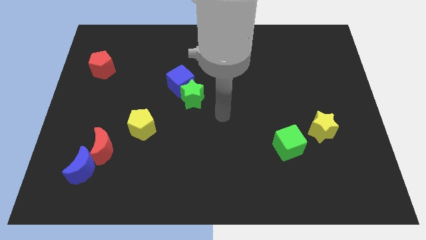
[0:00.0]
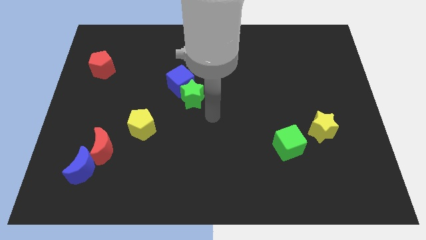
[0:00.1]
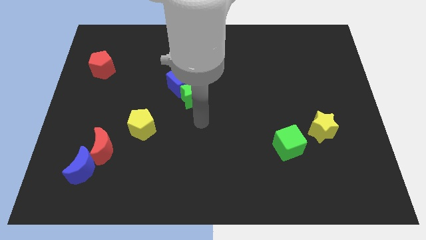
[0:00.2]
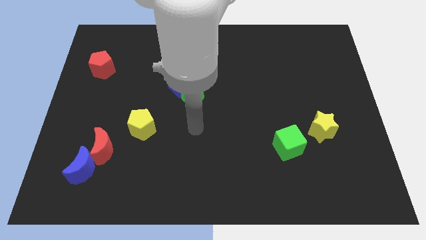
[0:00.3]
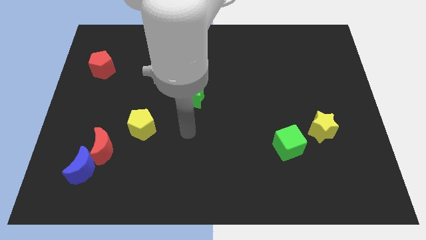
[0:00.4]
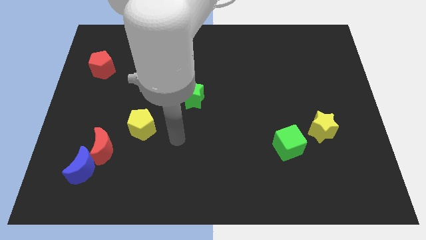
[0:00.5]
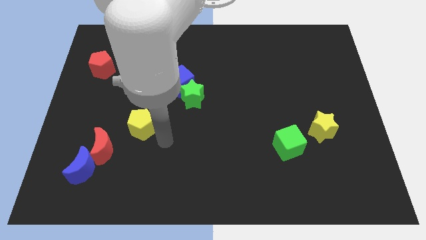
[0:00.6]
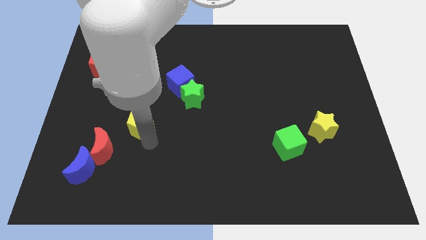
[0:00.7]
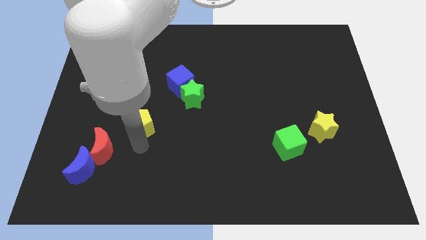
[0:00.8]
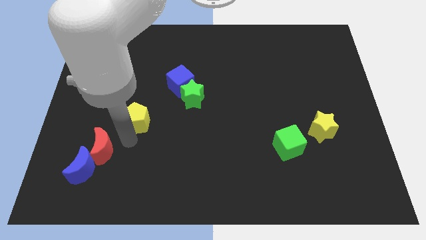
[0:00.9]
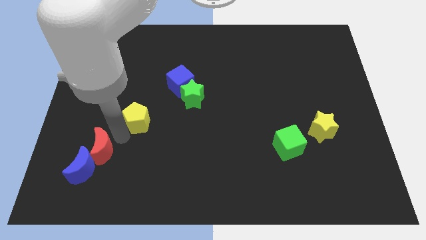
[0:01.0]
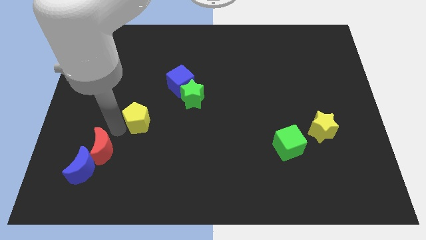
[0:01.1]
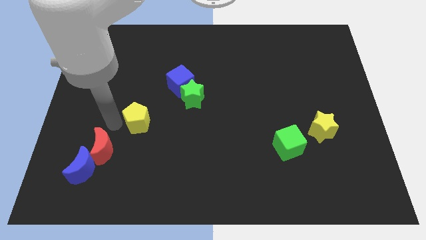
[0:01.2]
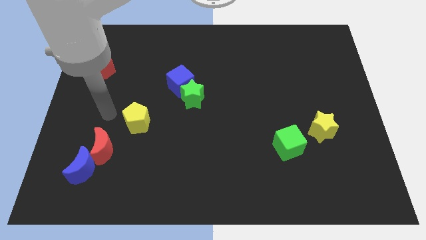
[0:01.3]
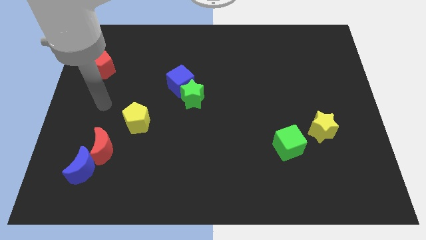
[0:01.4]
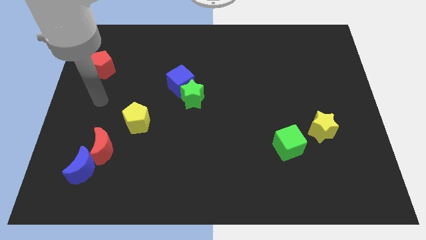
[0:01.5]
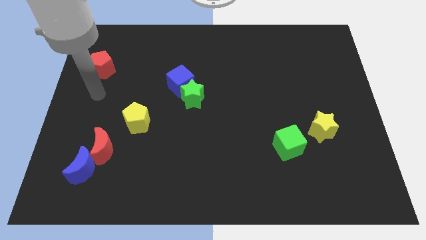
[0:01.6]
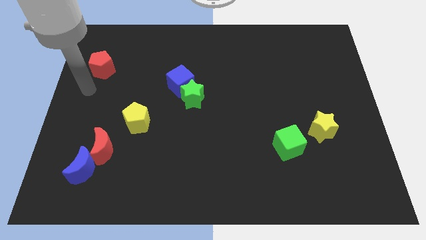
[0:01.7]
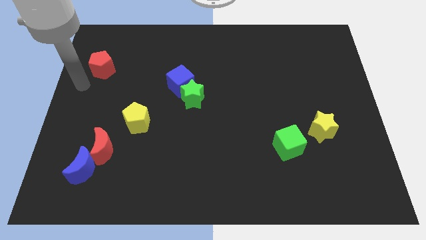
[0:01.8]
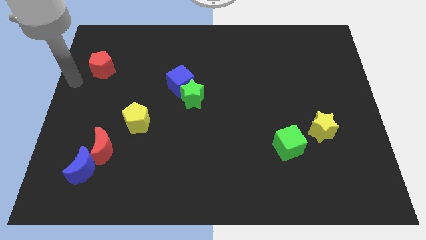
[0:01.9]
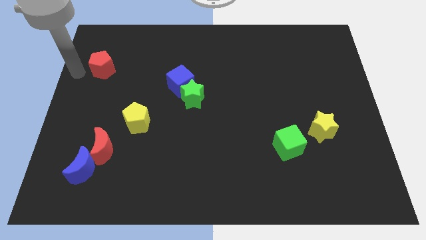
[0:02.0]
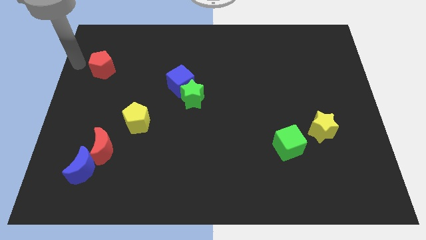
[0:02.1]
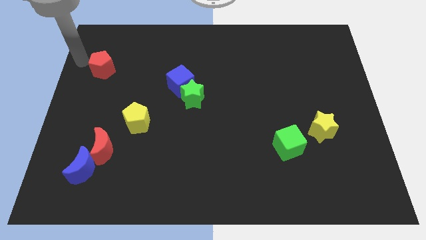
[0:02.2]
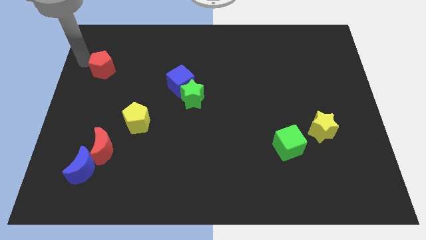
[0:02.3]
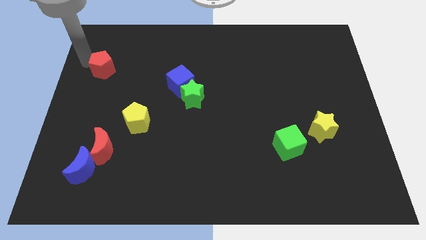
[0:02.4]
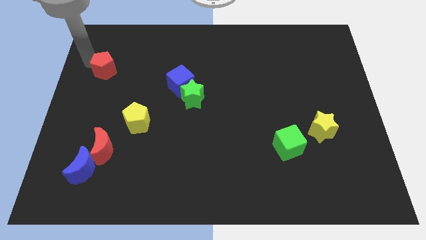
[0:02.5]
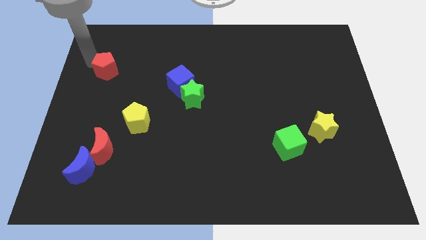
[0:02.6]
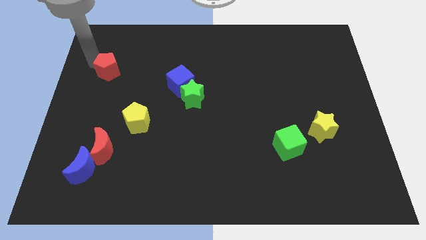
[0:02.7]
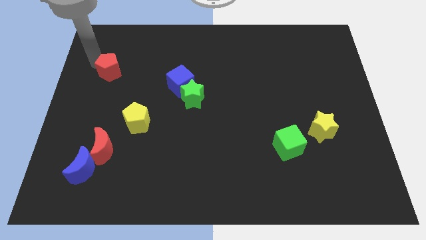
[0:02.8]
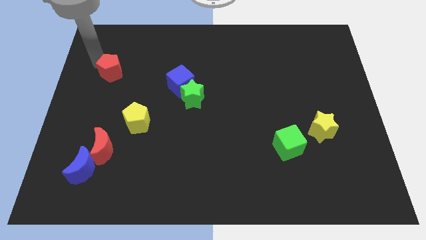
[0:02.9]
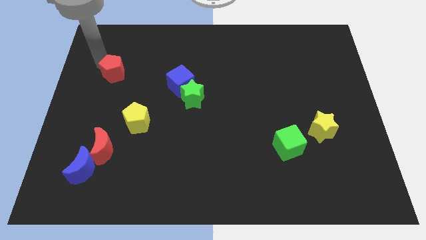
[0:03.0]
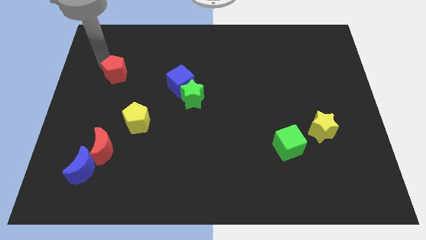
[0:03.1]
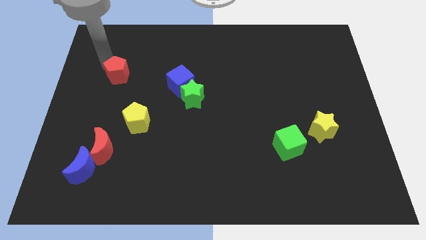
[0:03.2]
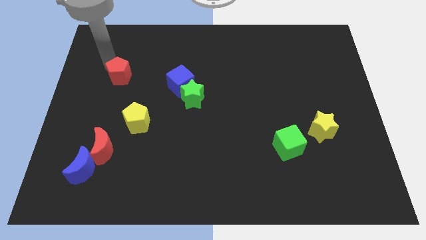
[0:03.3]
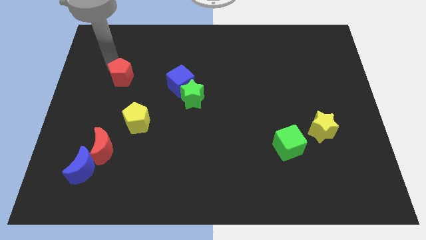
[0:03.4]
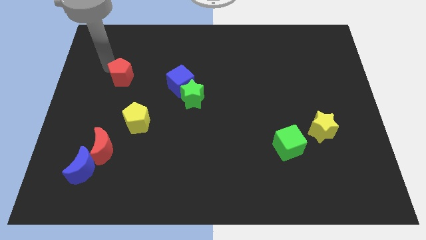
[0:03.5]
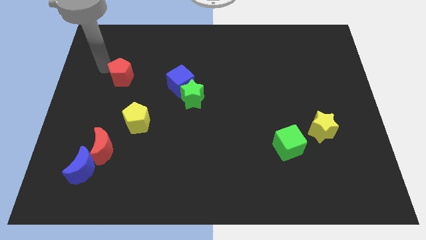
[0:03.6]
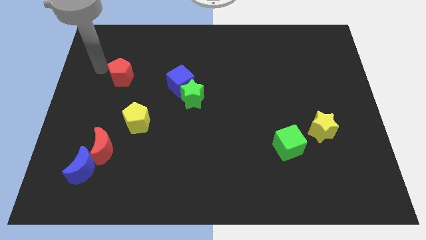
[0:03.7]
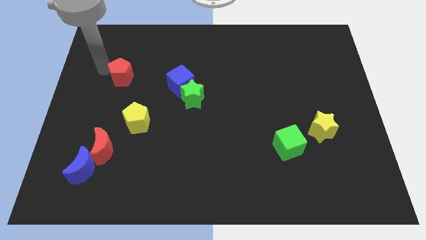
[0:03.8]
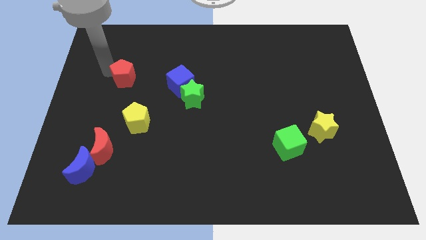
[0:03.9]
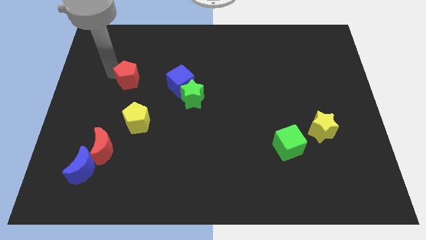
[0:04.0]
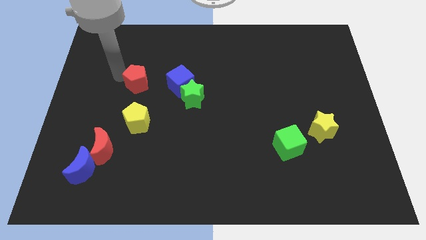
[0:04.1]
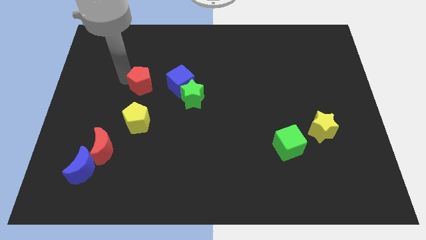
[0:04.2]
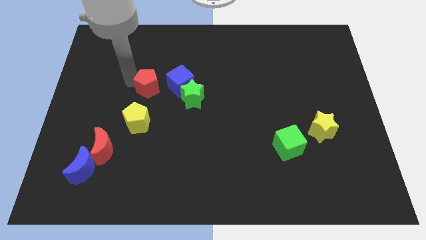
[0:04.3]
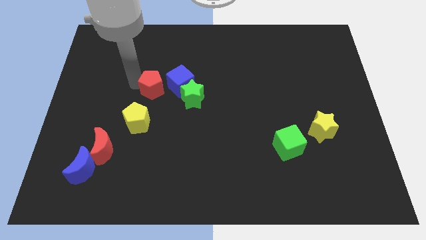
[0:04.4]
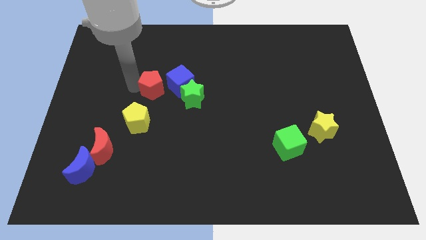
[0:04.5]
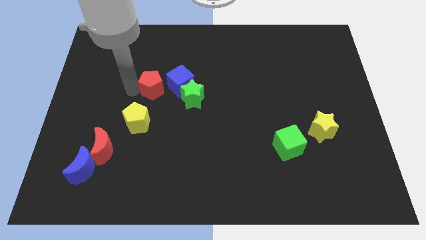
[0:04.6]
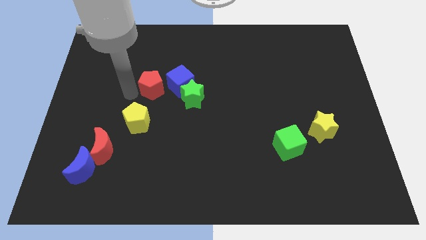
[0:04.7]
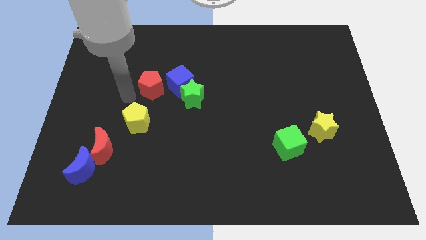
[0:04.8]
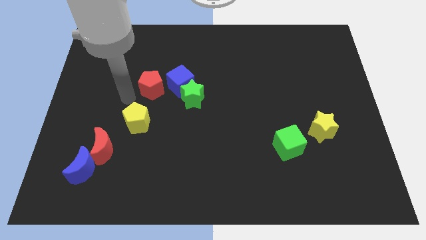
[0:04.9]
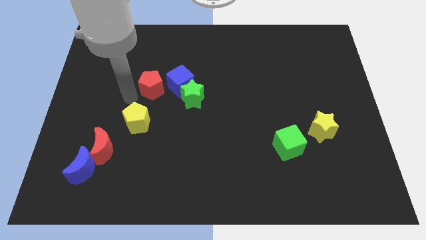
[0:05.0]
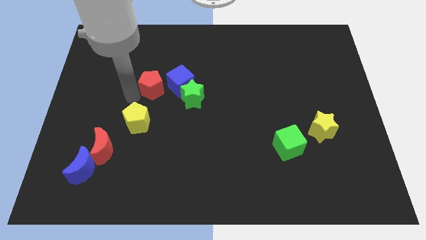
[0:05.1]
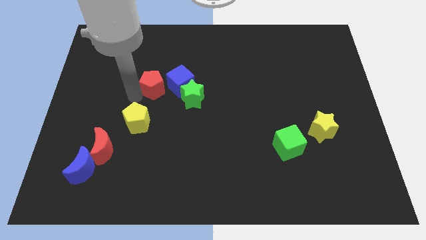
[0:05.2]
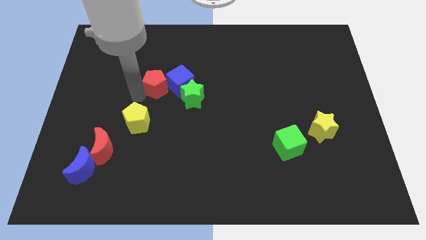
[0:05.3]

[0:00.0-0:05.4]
slide the red pentagon close to the blue cube

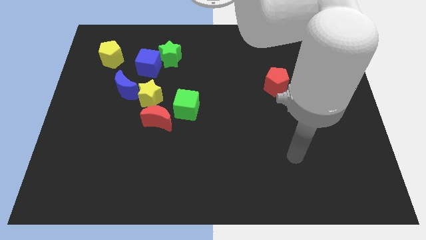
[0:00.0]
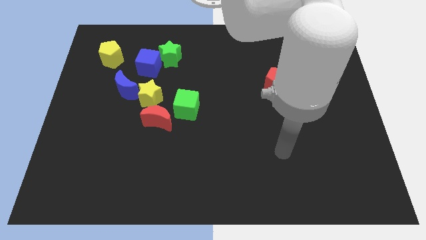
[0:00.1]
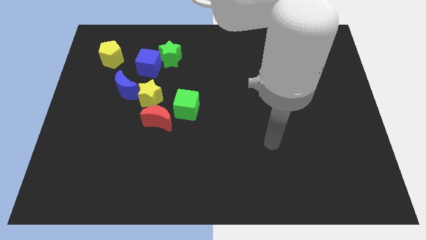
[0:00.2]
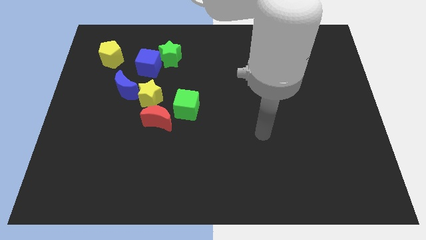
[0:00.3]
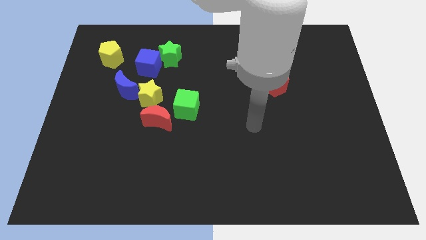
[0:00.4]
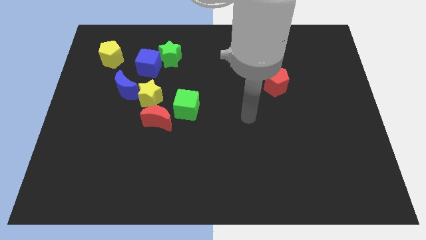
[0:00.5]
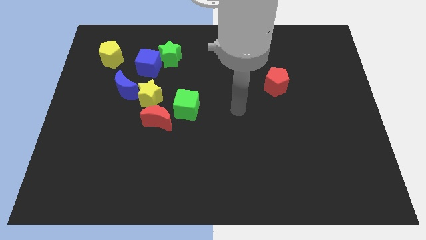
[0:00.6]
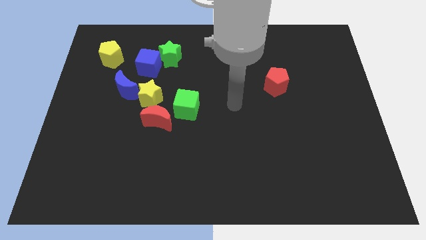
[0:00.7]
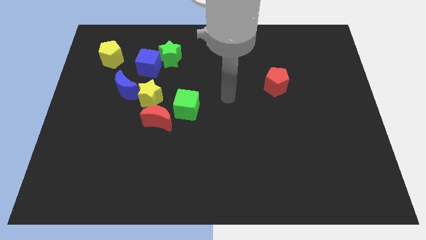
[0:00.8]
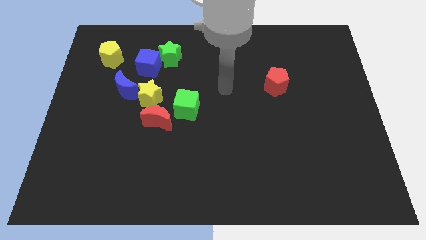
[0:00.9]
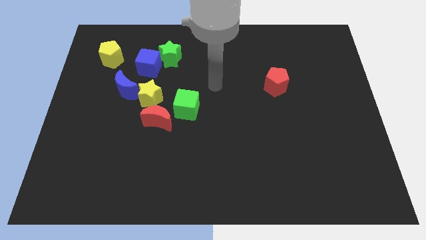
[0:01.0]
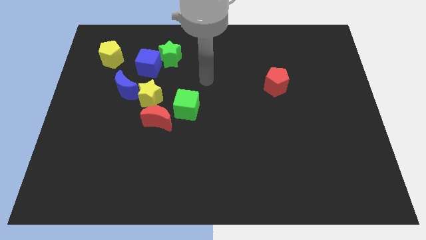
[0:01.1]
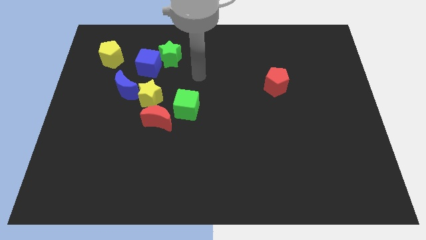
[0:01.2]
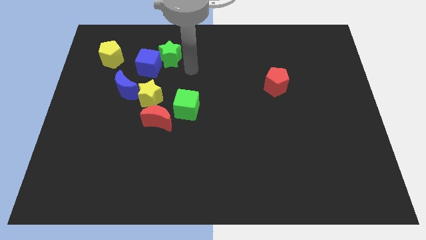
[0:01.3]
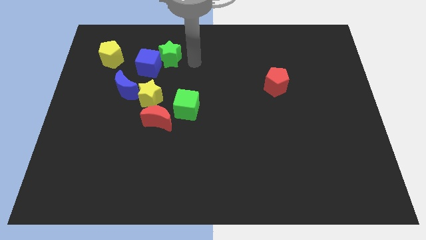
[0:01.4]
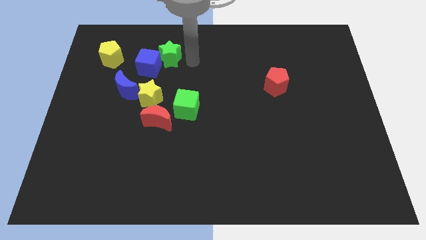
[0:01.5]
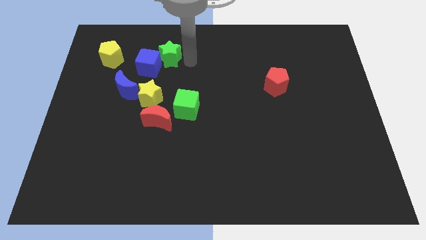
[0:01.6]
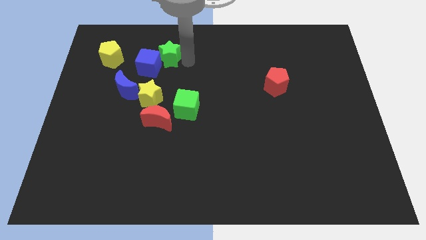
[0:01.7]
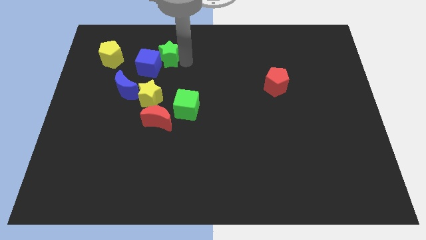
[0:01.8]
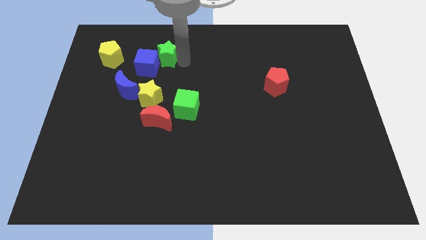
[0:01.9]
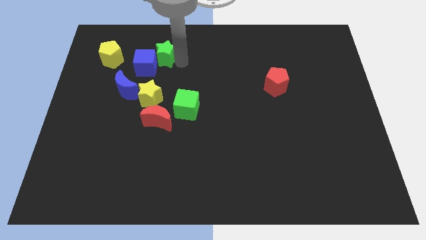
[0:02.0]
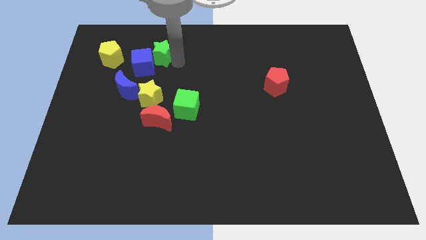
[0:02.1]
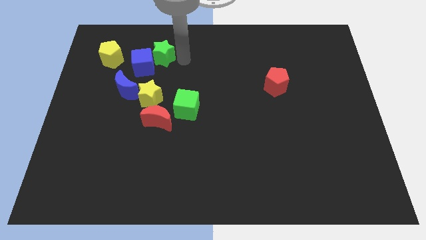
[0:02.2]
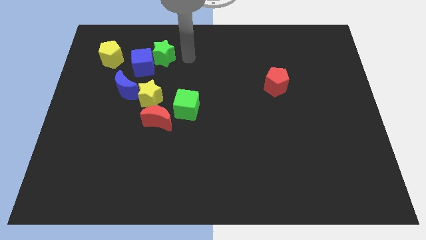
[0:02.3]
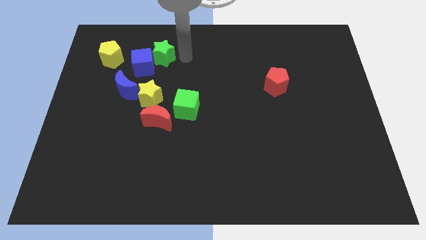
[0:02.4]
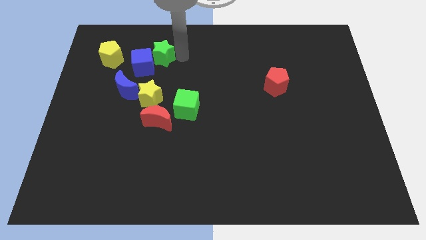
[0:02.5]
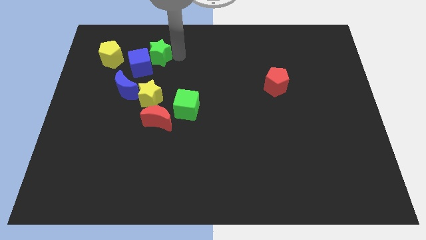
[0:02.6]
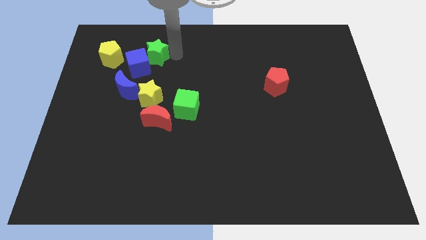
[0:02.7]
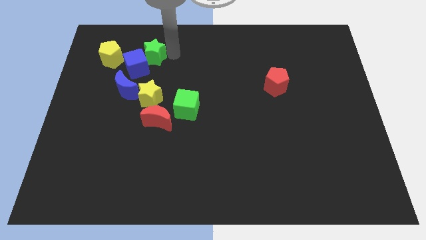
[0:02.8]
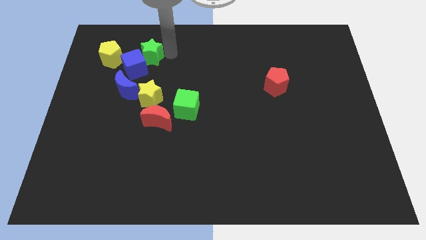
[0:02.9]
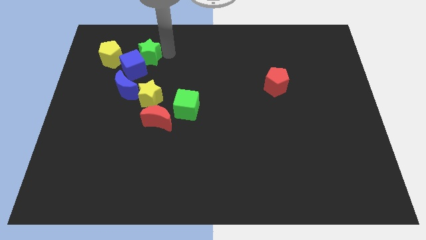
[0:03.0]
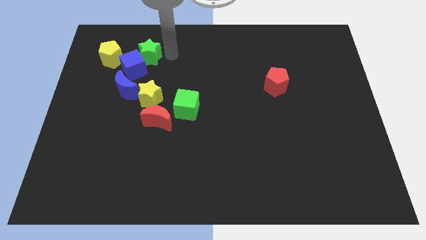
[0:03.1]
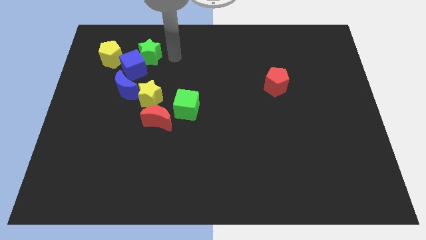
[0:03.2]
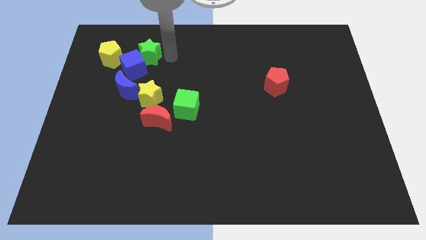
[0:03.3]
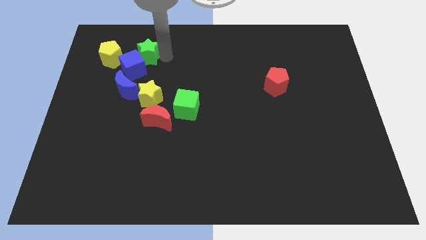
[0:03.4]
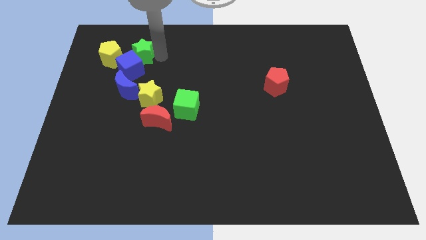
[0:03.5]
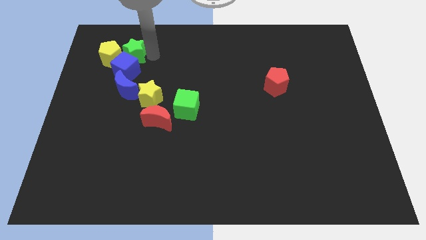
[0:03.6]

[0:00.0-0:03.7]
push the green star to the yellow pentagon
